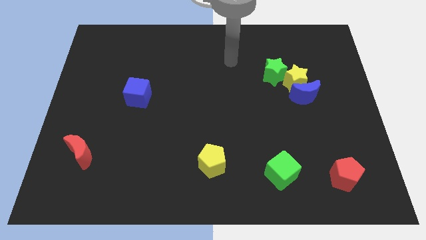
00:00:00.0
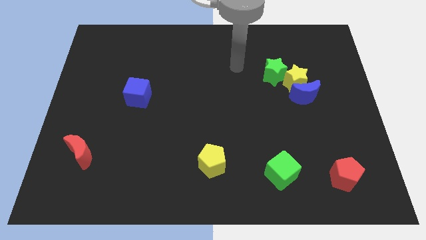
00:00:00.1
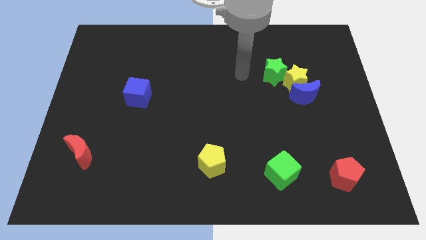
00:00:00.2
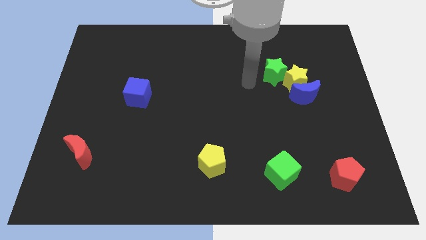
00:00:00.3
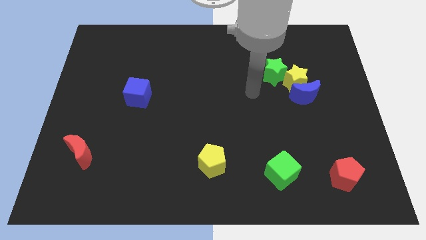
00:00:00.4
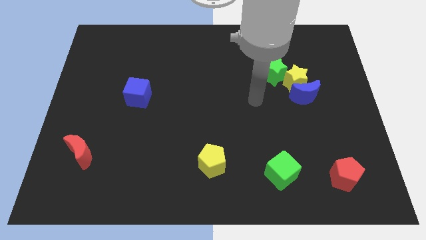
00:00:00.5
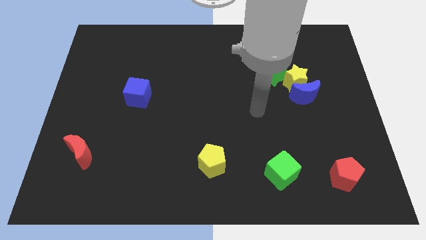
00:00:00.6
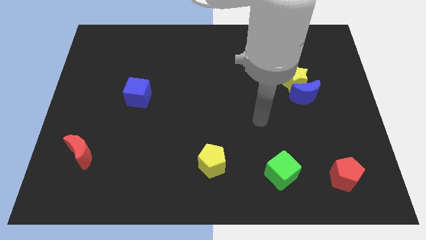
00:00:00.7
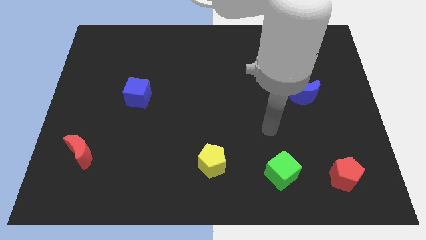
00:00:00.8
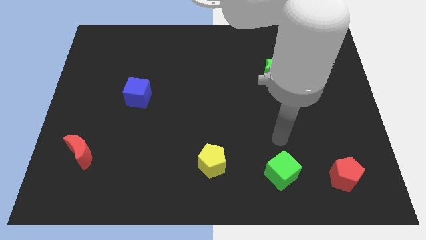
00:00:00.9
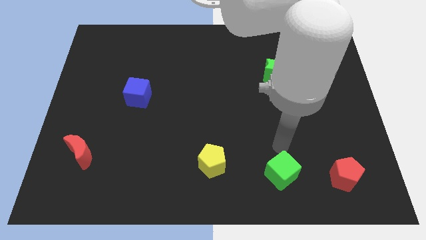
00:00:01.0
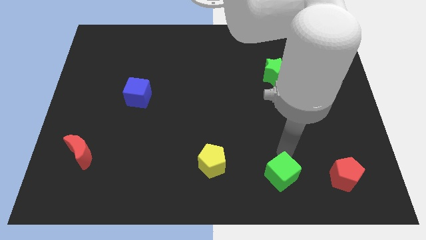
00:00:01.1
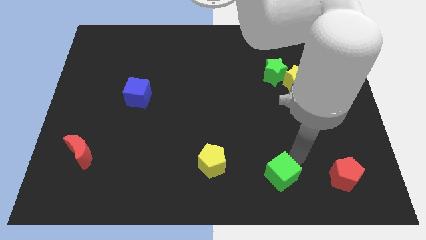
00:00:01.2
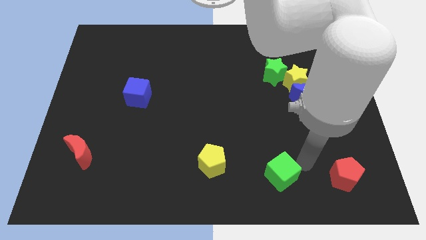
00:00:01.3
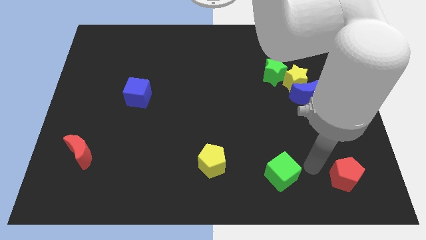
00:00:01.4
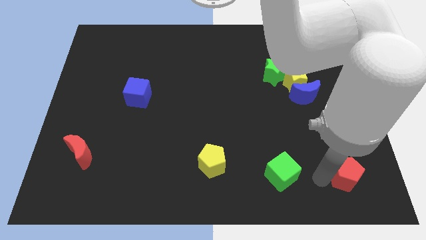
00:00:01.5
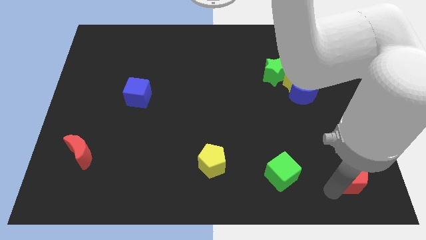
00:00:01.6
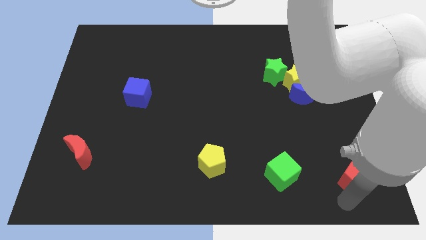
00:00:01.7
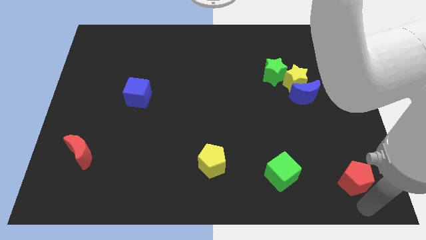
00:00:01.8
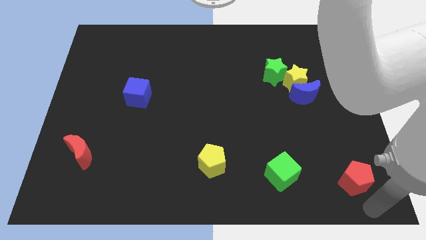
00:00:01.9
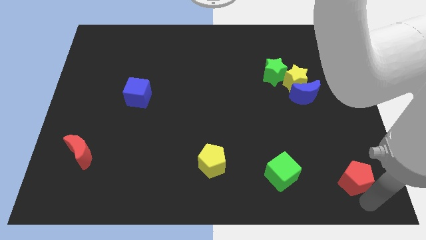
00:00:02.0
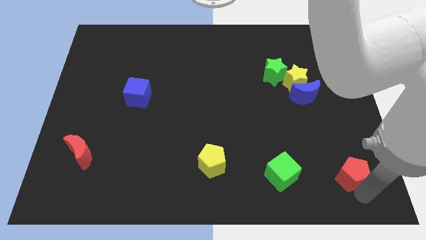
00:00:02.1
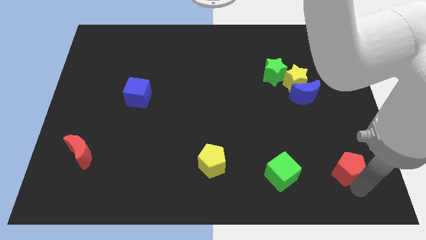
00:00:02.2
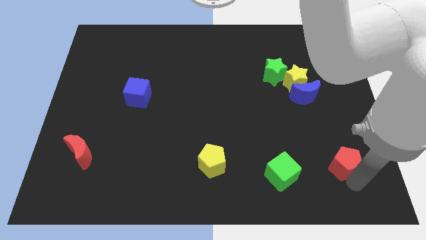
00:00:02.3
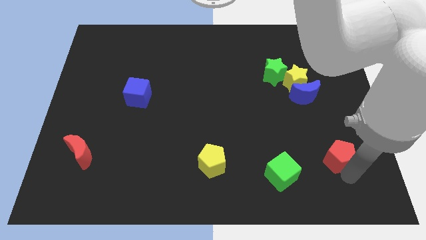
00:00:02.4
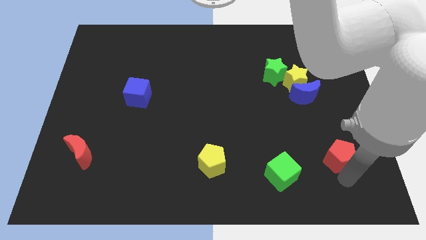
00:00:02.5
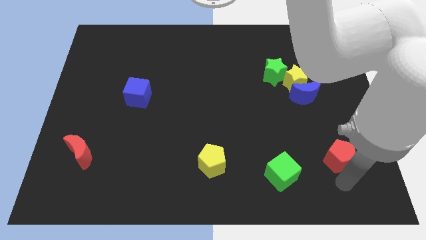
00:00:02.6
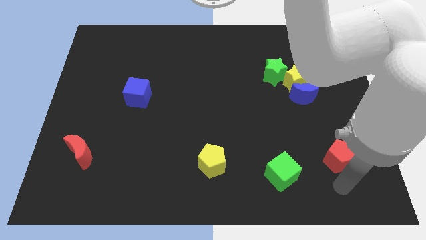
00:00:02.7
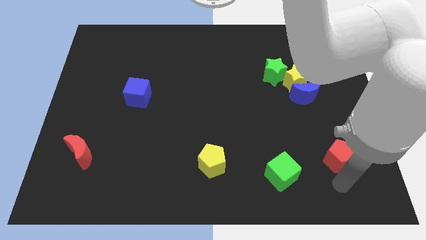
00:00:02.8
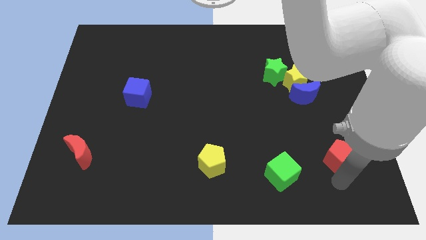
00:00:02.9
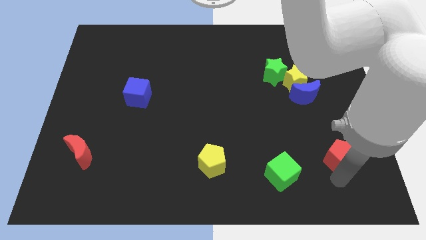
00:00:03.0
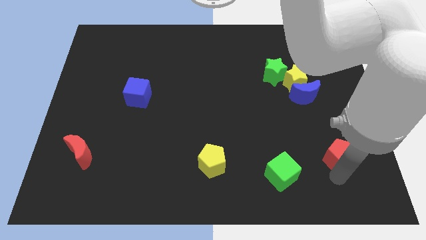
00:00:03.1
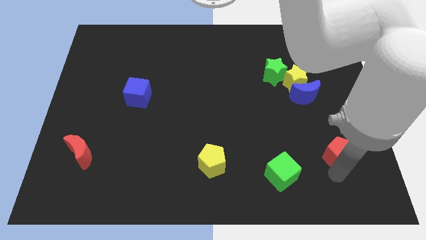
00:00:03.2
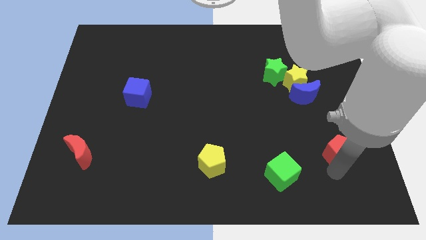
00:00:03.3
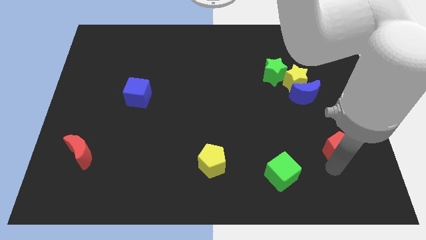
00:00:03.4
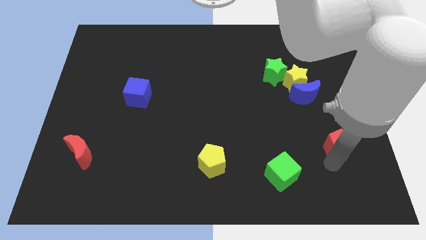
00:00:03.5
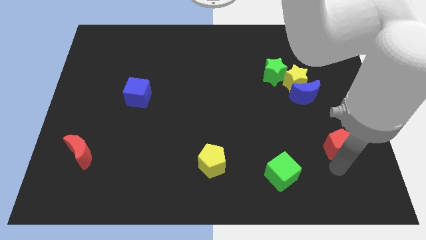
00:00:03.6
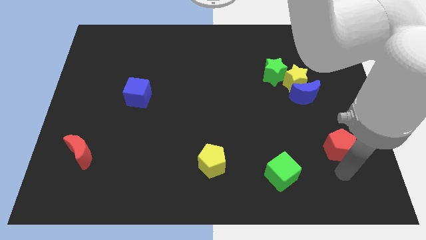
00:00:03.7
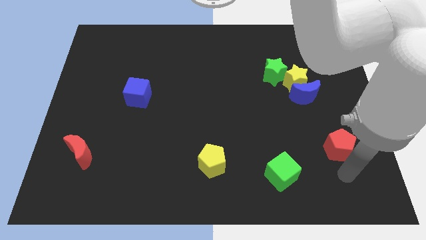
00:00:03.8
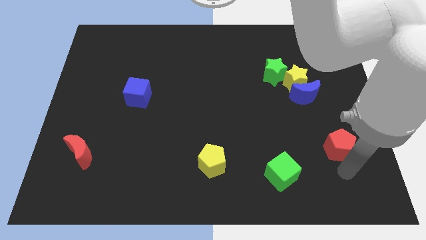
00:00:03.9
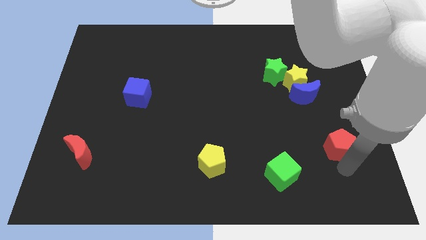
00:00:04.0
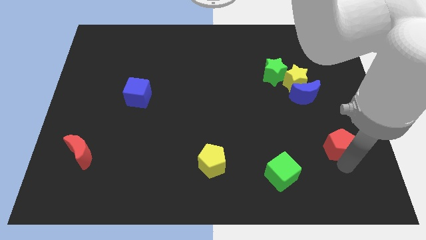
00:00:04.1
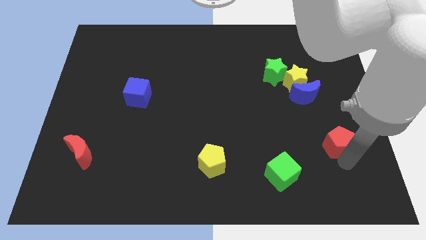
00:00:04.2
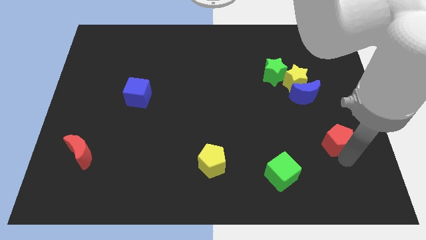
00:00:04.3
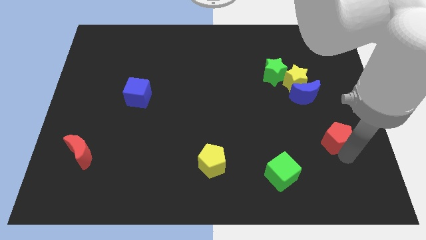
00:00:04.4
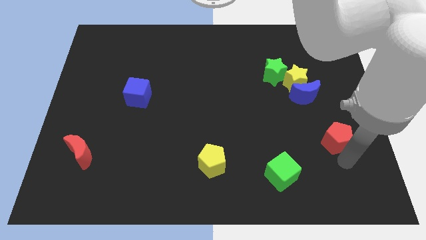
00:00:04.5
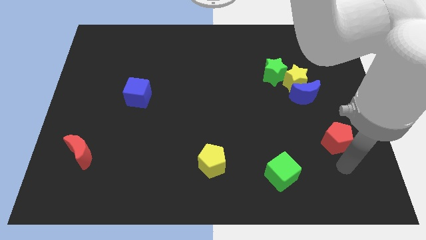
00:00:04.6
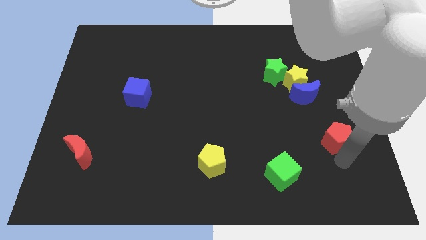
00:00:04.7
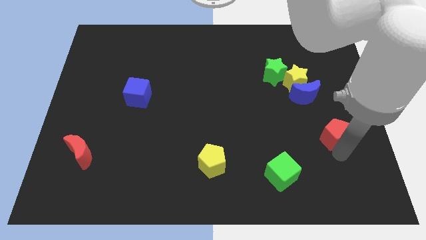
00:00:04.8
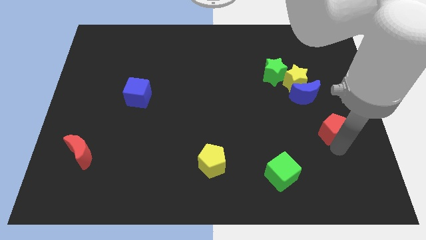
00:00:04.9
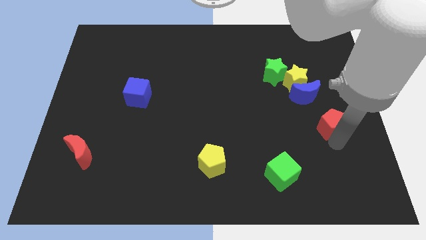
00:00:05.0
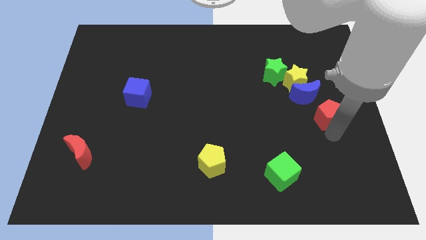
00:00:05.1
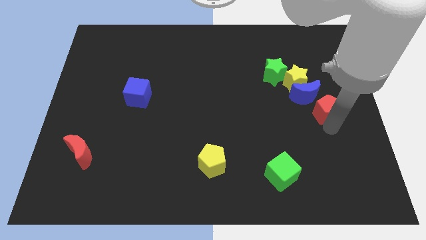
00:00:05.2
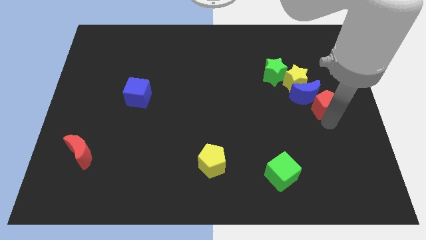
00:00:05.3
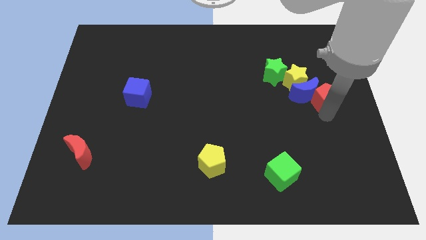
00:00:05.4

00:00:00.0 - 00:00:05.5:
move the red pentagon upwards

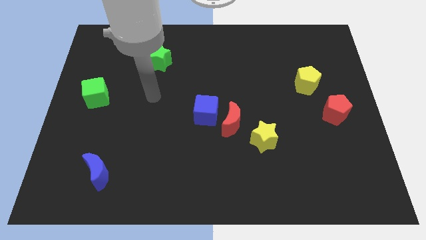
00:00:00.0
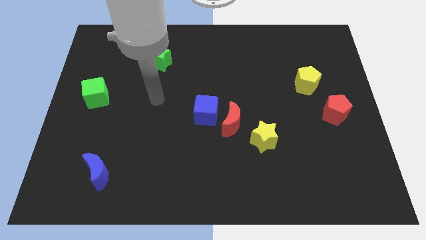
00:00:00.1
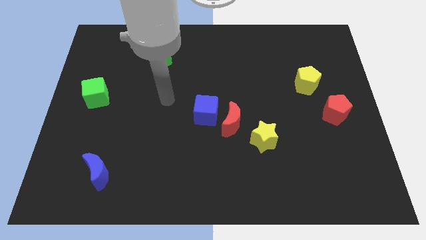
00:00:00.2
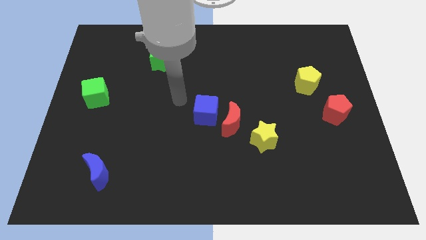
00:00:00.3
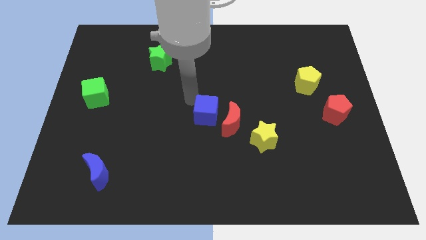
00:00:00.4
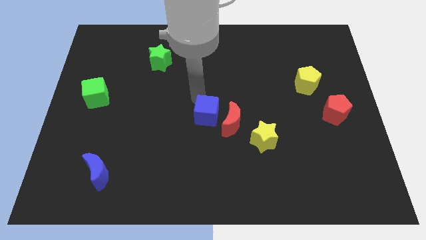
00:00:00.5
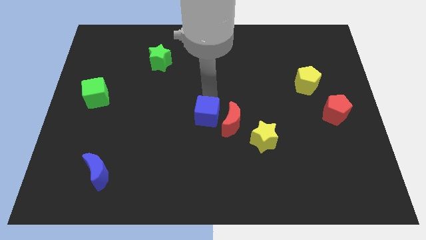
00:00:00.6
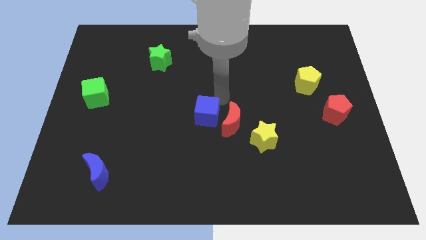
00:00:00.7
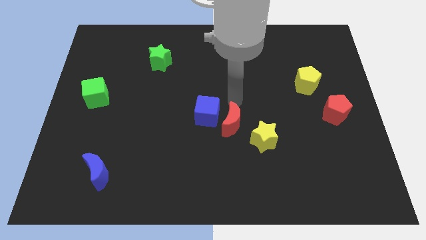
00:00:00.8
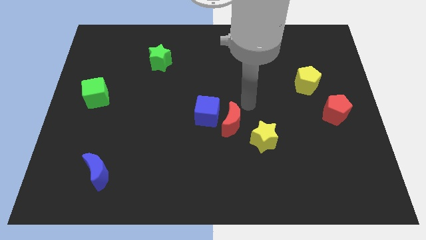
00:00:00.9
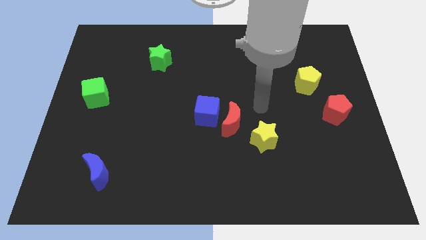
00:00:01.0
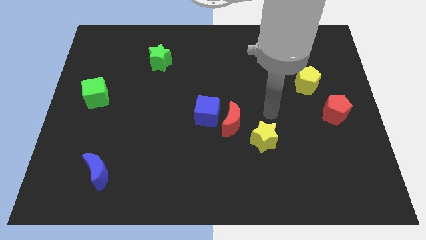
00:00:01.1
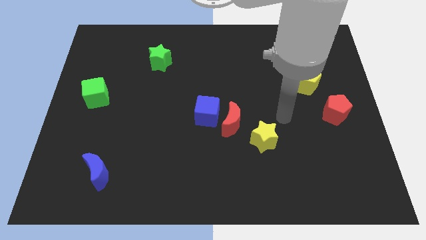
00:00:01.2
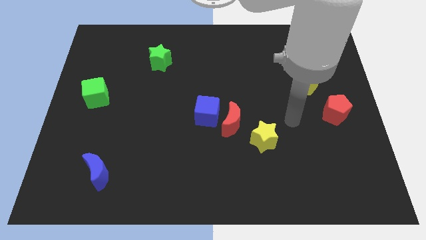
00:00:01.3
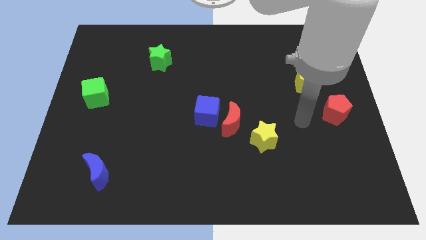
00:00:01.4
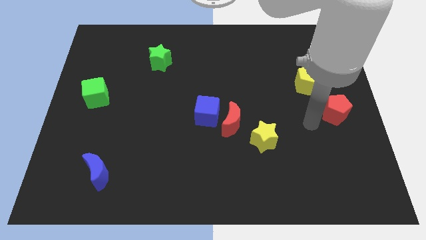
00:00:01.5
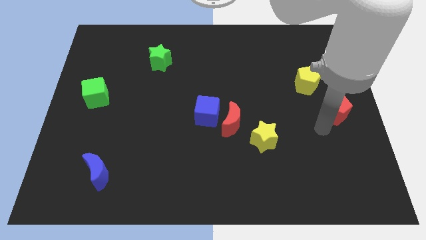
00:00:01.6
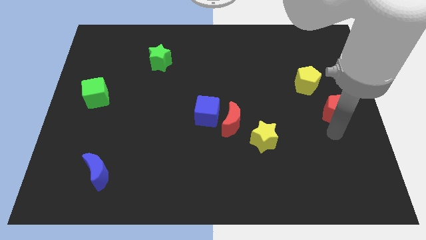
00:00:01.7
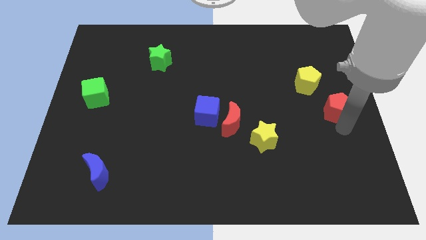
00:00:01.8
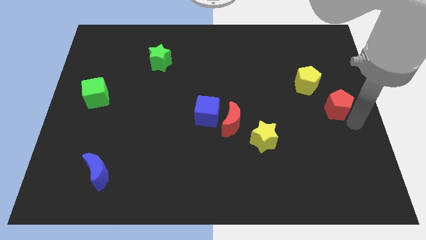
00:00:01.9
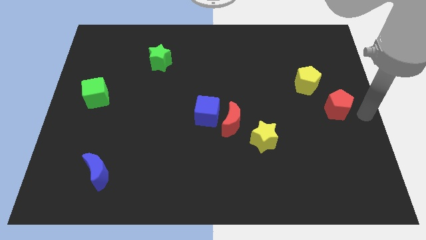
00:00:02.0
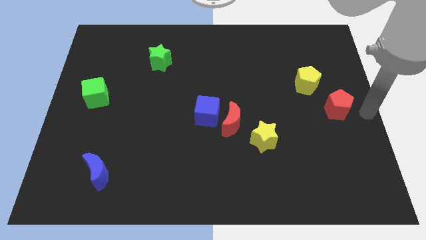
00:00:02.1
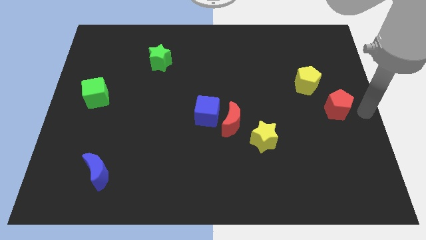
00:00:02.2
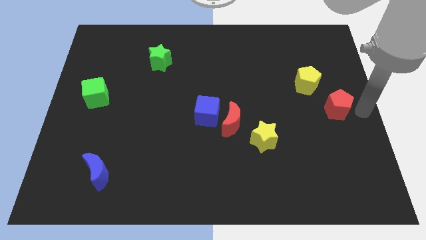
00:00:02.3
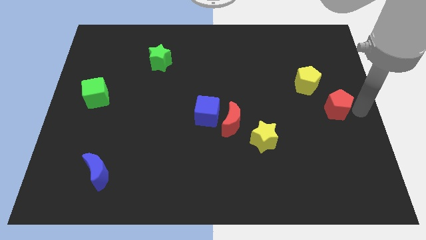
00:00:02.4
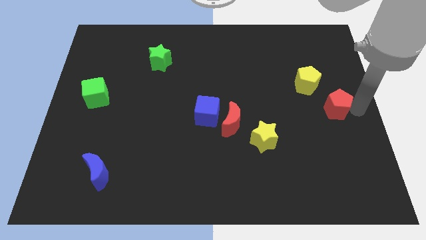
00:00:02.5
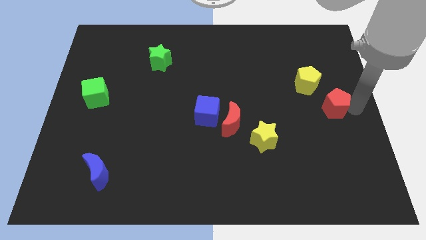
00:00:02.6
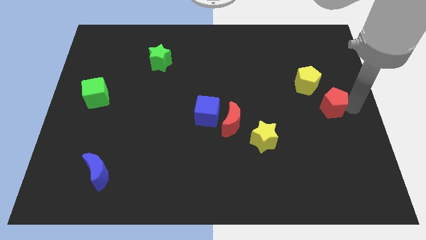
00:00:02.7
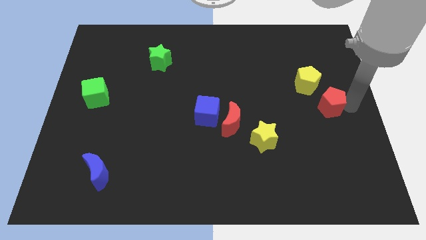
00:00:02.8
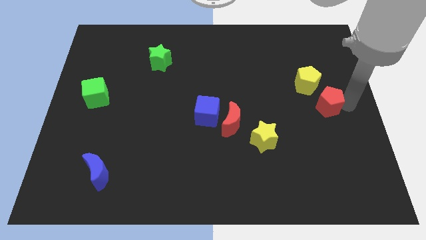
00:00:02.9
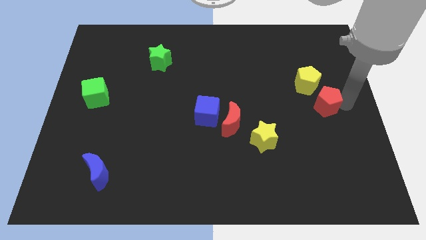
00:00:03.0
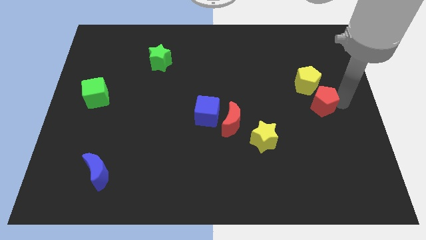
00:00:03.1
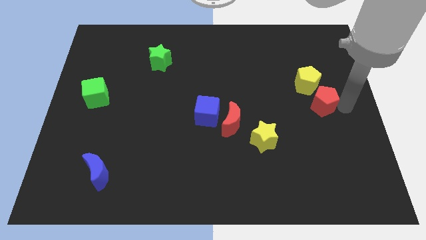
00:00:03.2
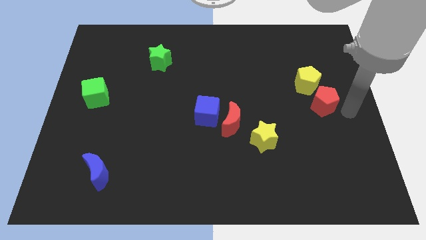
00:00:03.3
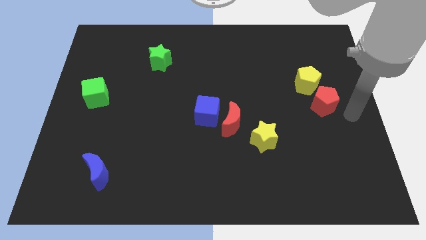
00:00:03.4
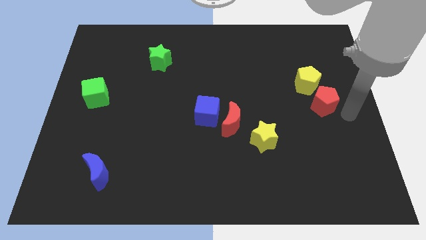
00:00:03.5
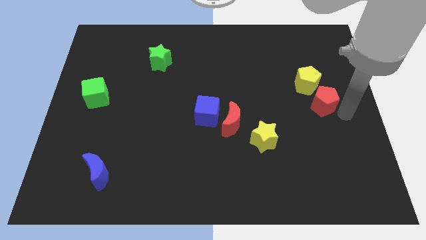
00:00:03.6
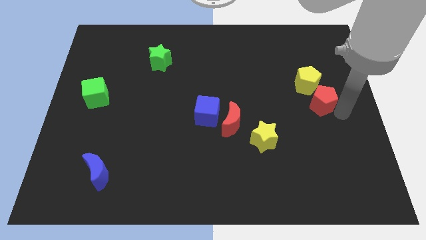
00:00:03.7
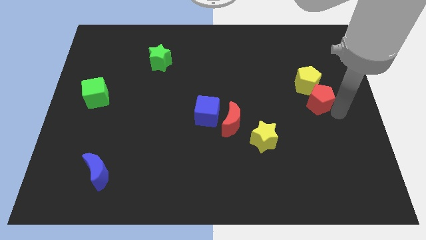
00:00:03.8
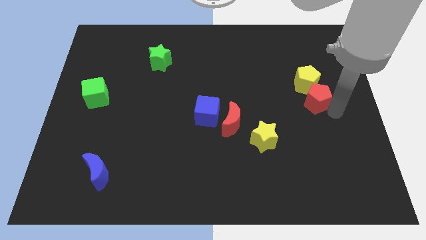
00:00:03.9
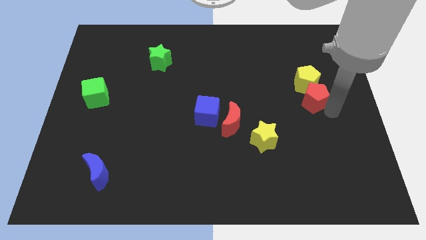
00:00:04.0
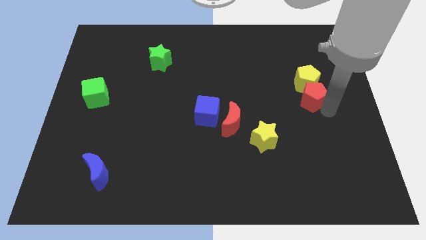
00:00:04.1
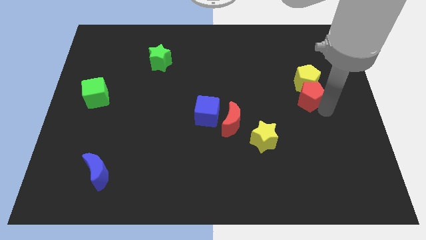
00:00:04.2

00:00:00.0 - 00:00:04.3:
slightly push the red pentagon up and to the left diagonally
